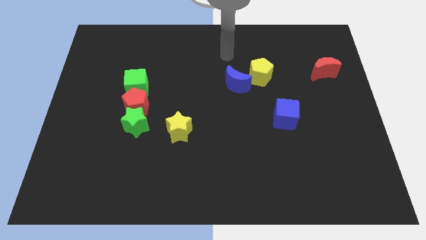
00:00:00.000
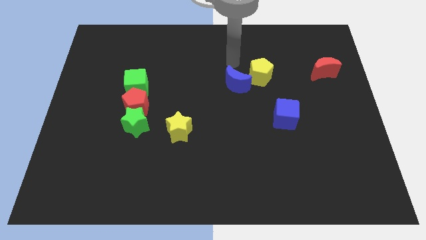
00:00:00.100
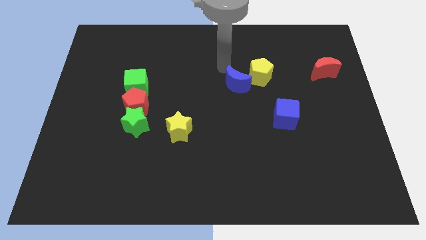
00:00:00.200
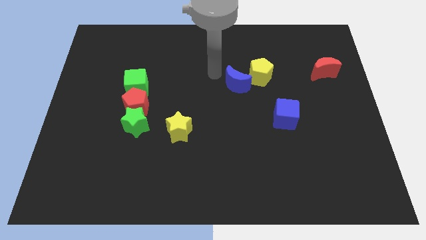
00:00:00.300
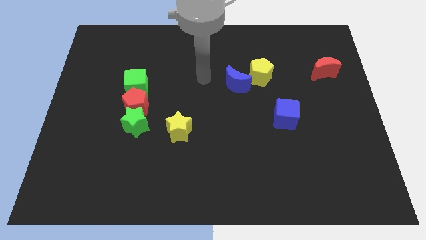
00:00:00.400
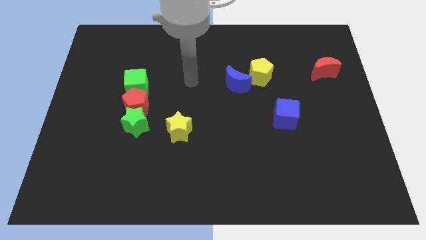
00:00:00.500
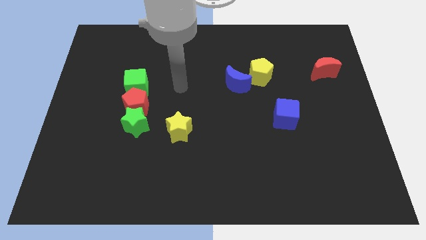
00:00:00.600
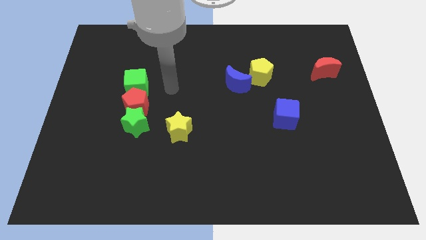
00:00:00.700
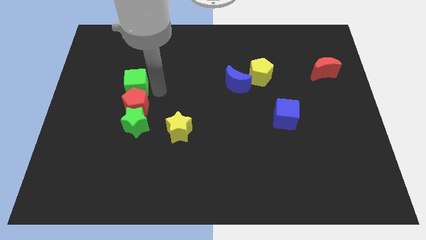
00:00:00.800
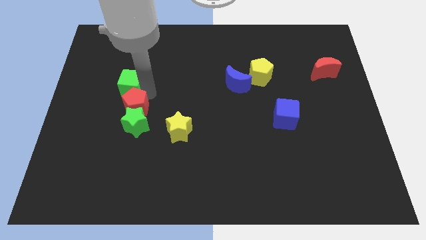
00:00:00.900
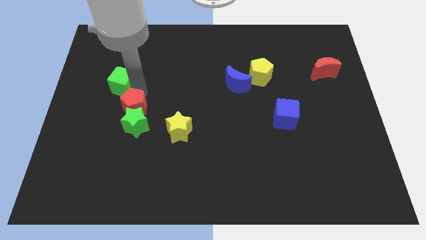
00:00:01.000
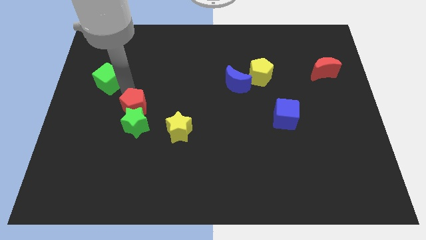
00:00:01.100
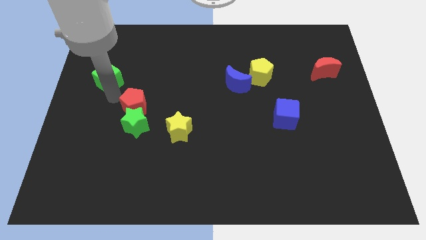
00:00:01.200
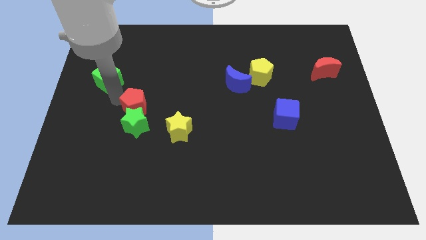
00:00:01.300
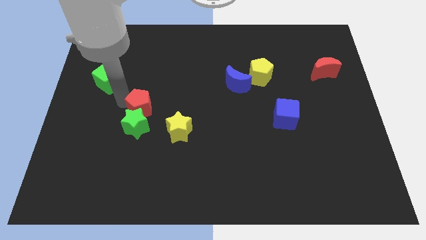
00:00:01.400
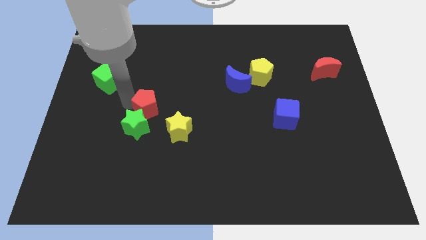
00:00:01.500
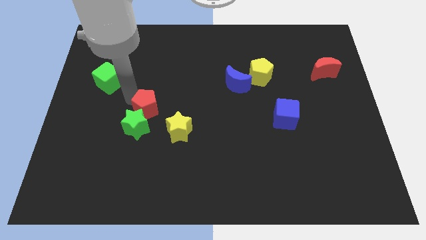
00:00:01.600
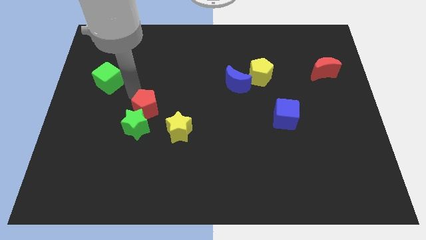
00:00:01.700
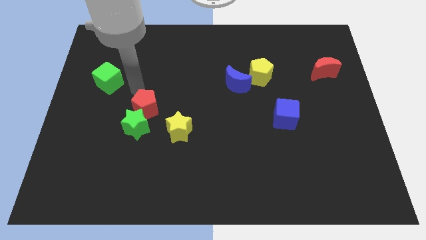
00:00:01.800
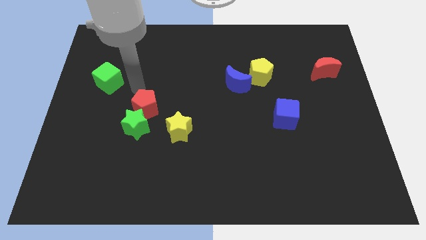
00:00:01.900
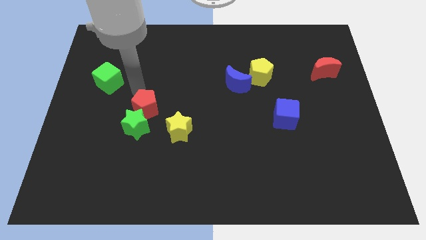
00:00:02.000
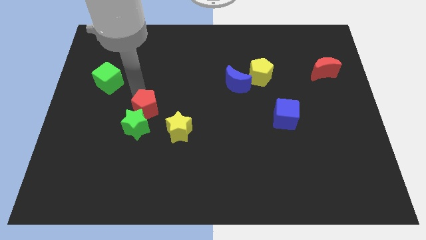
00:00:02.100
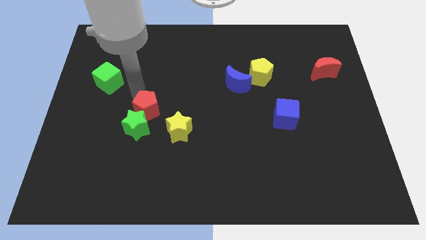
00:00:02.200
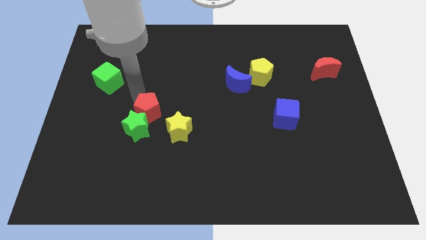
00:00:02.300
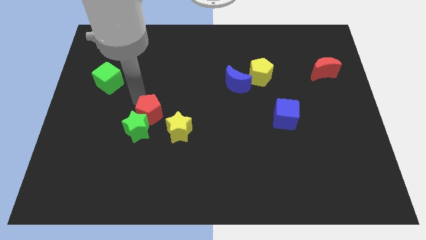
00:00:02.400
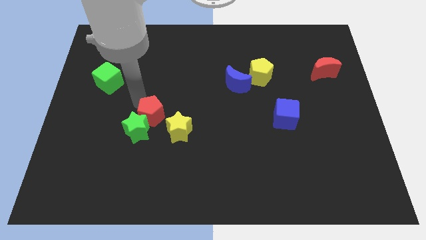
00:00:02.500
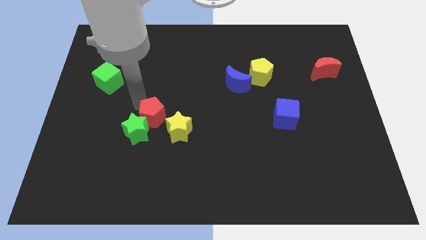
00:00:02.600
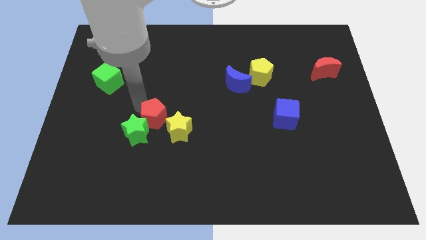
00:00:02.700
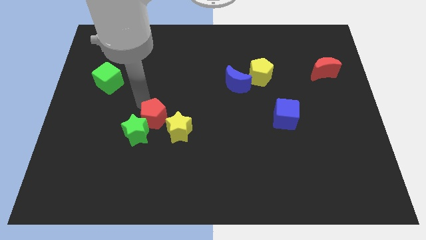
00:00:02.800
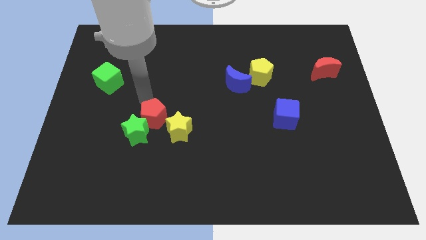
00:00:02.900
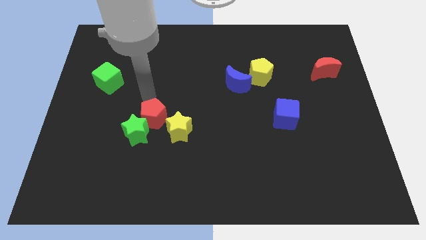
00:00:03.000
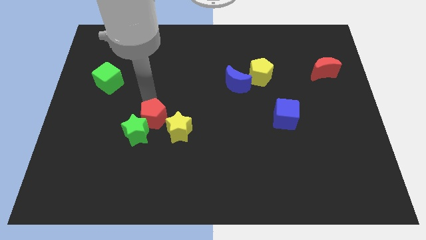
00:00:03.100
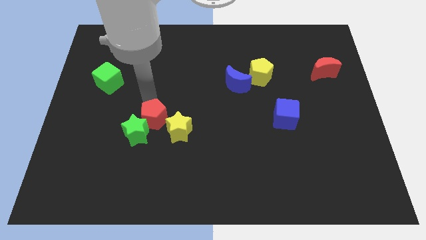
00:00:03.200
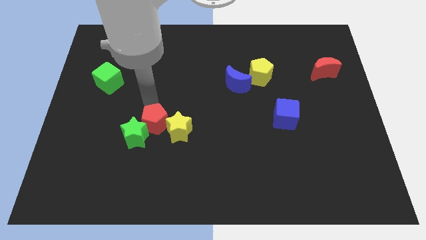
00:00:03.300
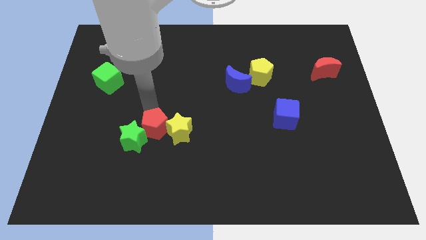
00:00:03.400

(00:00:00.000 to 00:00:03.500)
separate the red pentagon from the green star and green cube

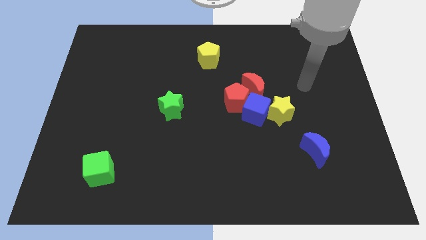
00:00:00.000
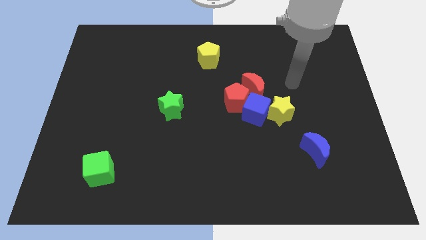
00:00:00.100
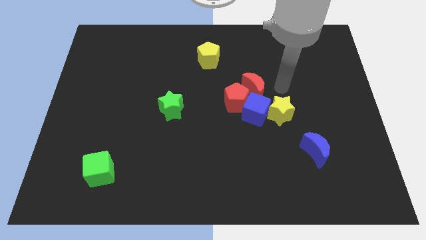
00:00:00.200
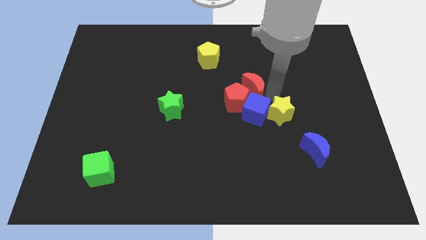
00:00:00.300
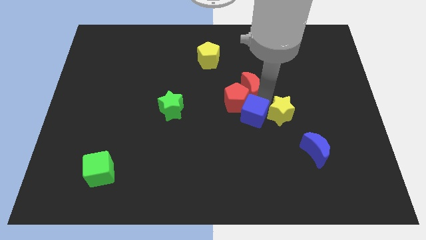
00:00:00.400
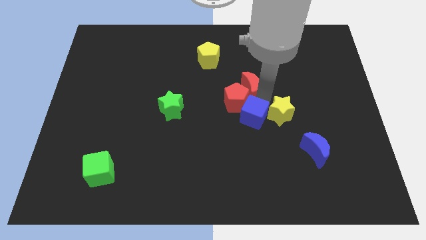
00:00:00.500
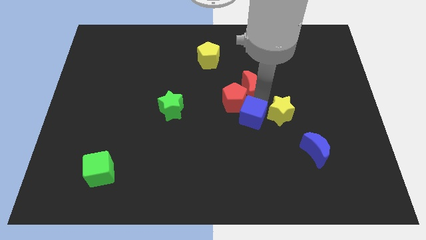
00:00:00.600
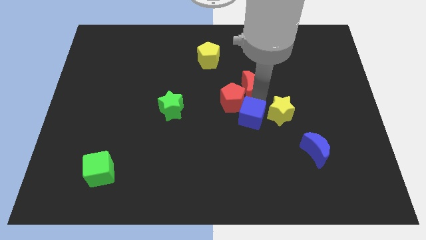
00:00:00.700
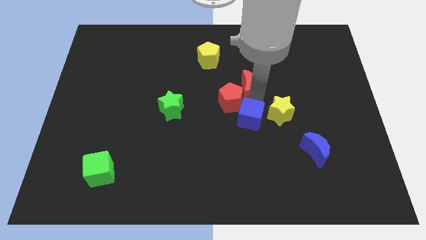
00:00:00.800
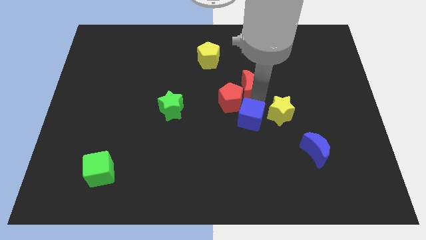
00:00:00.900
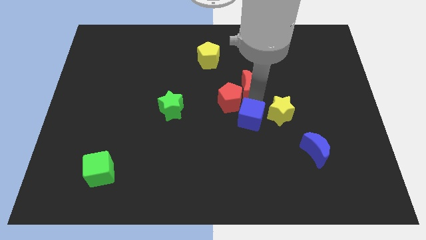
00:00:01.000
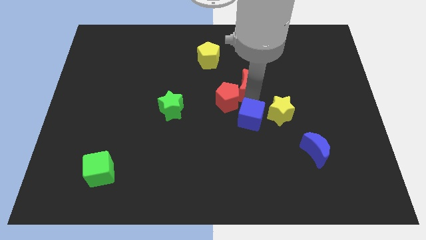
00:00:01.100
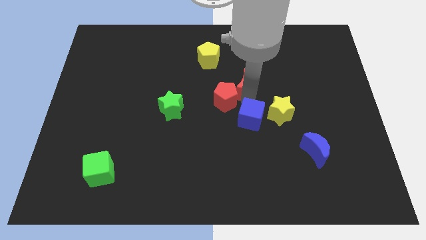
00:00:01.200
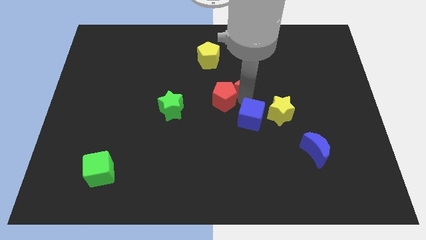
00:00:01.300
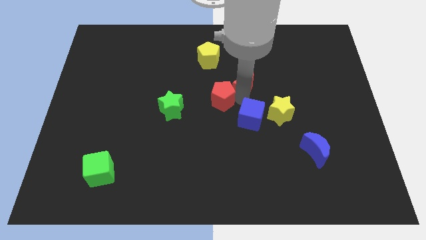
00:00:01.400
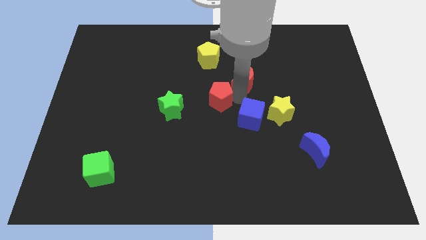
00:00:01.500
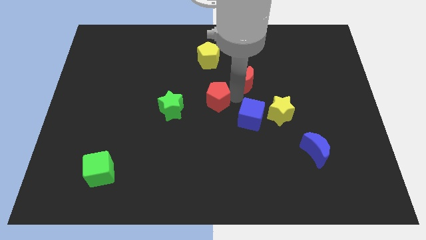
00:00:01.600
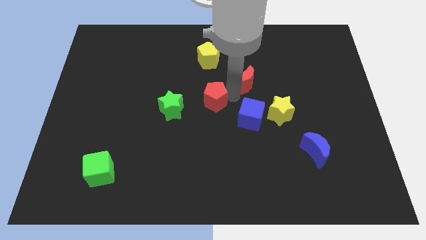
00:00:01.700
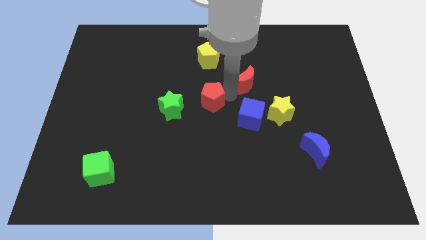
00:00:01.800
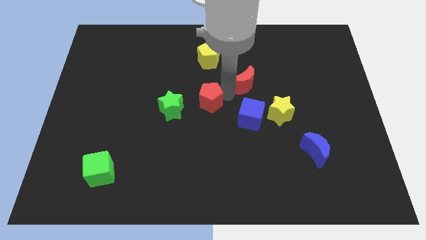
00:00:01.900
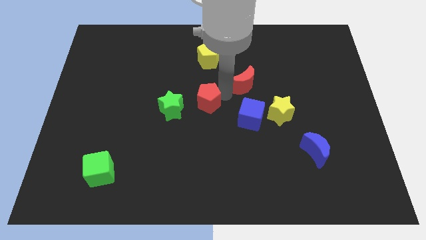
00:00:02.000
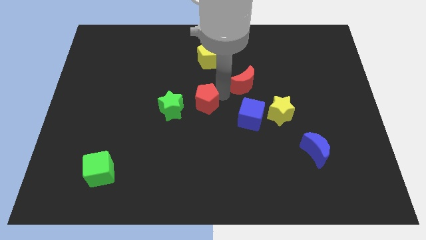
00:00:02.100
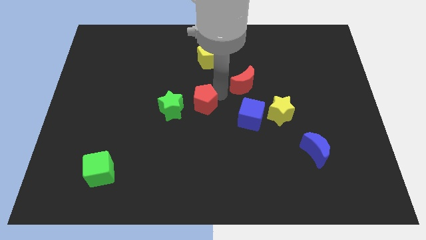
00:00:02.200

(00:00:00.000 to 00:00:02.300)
move the red pentagon away from the blue cube and red moon

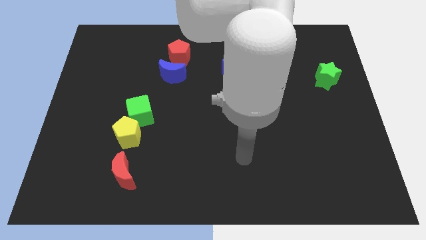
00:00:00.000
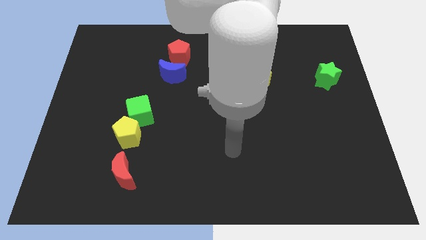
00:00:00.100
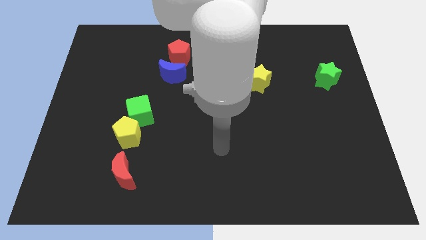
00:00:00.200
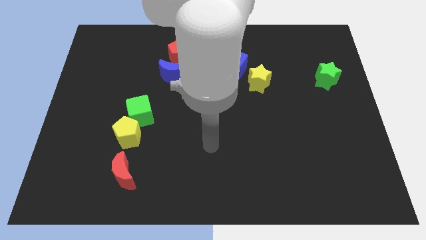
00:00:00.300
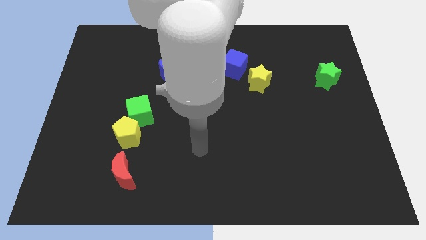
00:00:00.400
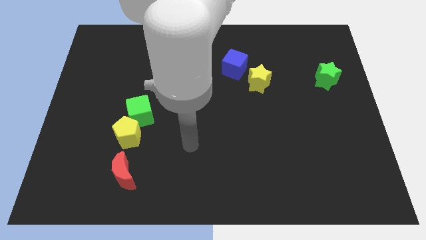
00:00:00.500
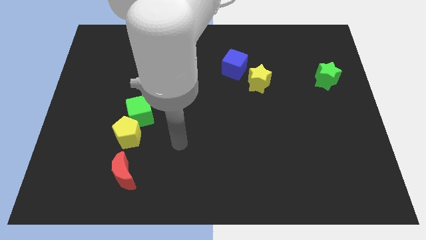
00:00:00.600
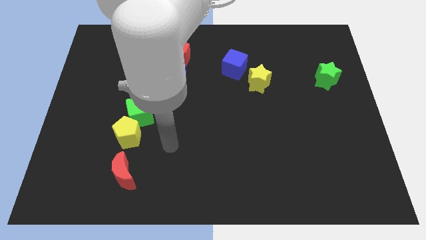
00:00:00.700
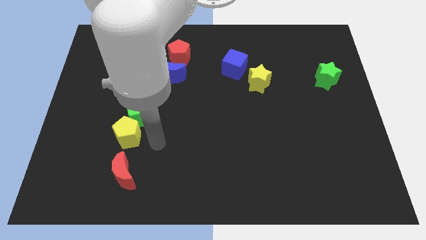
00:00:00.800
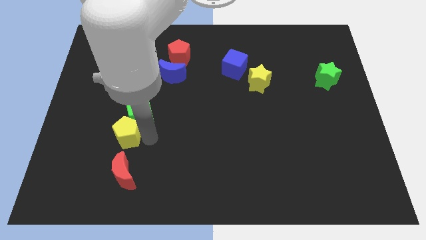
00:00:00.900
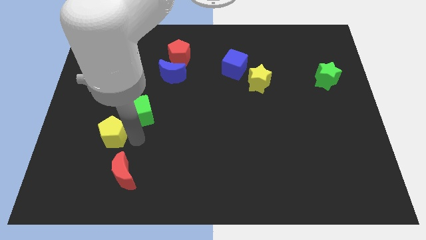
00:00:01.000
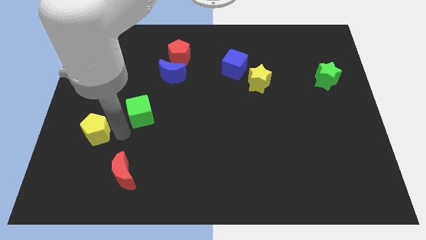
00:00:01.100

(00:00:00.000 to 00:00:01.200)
move the green cube away from the yellow pentagon

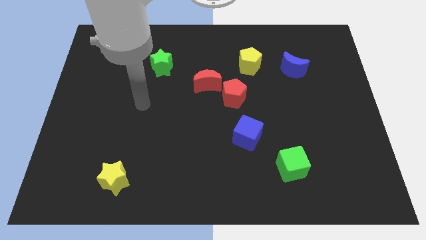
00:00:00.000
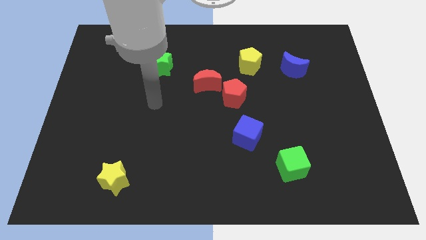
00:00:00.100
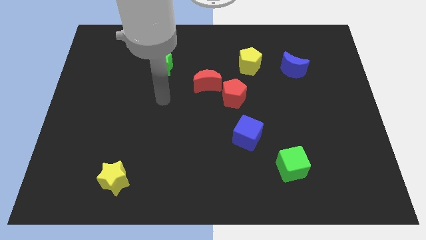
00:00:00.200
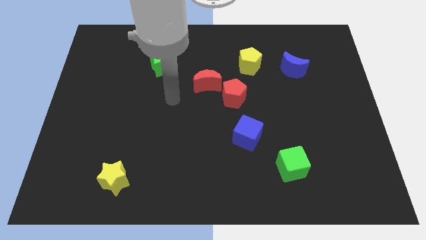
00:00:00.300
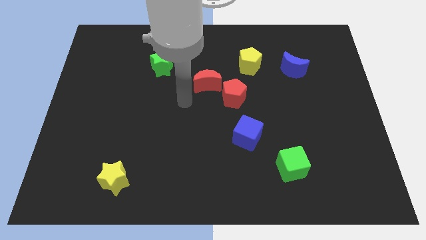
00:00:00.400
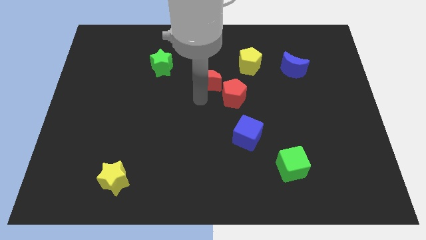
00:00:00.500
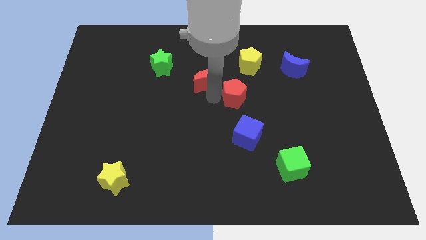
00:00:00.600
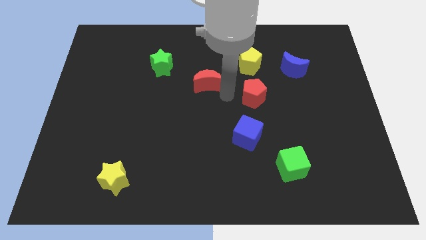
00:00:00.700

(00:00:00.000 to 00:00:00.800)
pull the red moon apart from the red pentagon

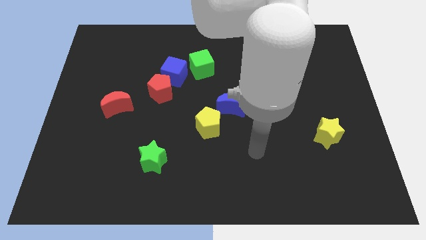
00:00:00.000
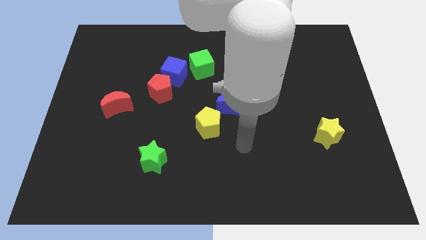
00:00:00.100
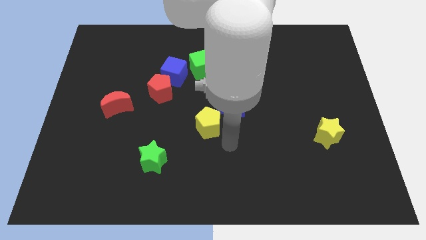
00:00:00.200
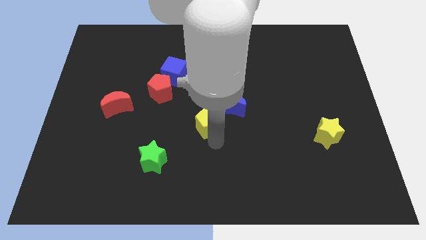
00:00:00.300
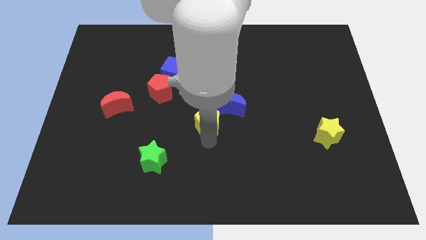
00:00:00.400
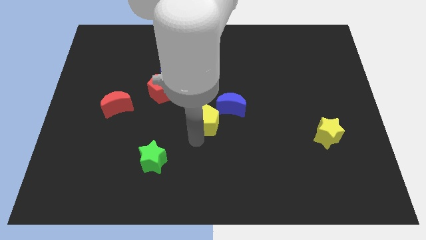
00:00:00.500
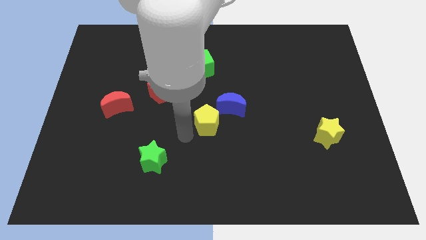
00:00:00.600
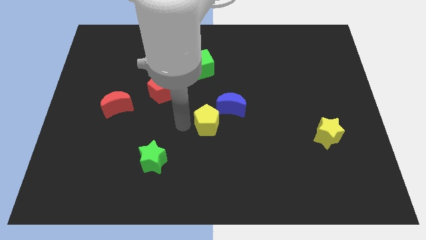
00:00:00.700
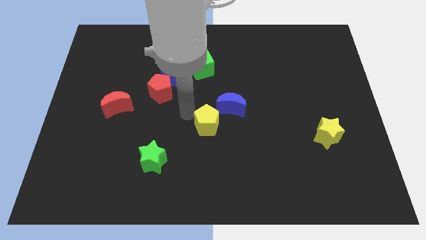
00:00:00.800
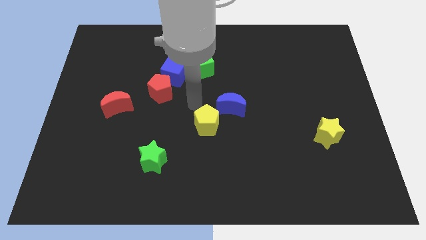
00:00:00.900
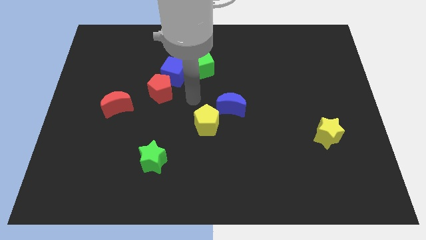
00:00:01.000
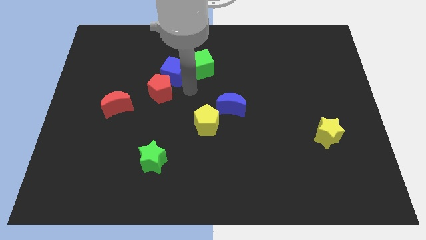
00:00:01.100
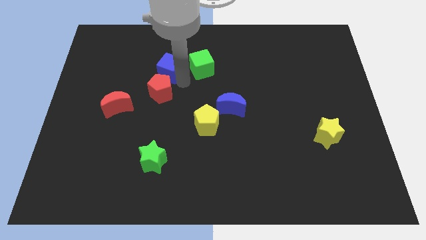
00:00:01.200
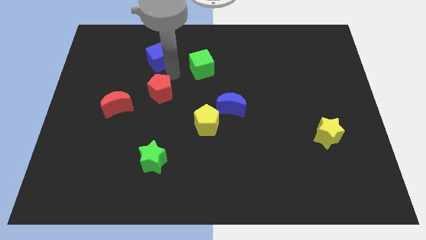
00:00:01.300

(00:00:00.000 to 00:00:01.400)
pull the red pentagon apart from the blue cube
